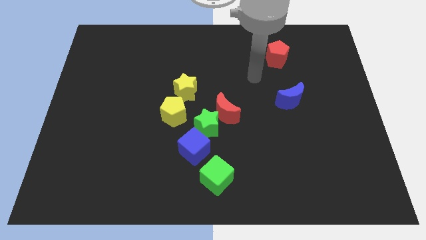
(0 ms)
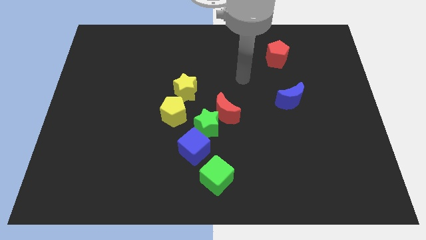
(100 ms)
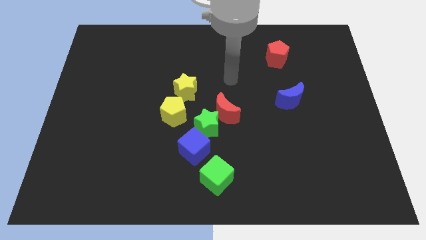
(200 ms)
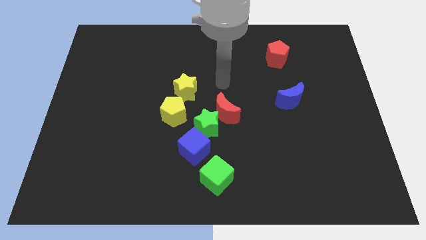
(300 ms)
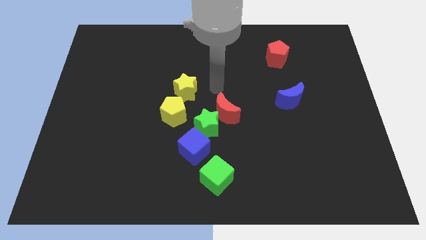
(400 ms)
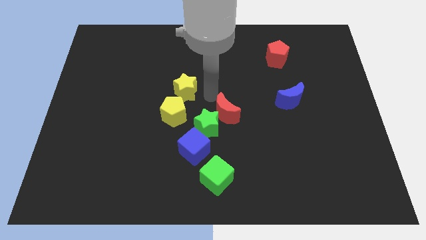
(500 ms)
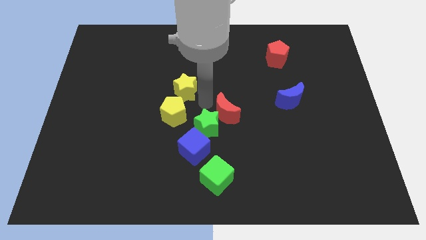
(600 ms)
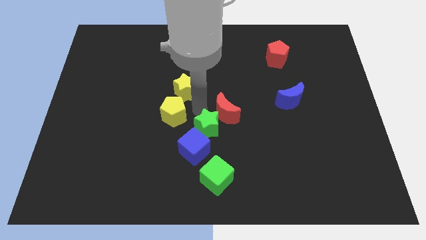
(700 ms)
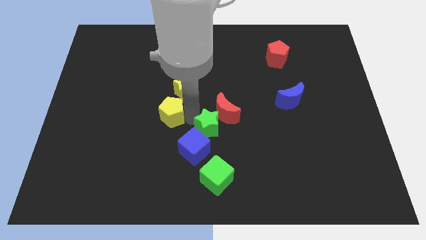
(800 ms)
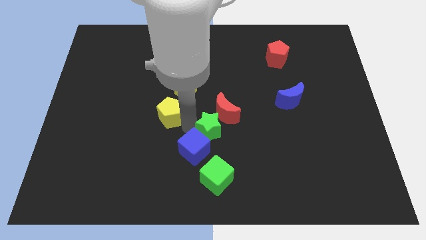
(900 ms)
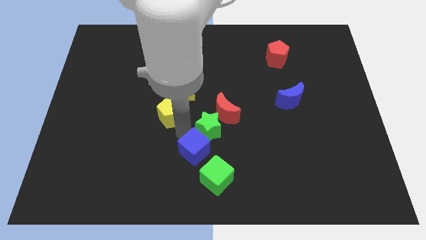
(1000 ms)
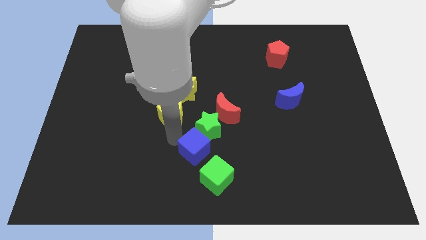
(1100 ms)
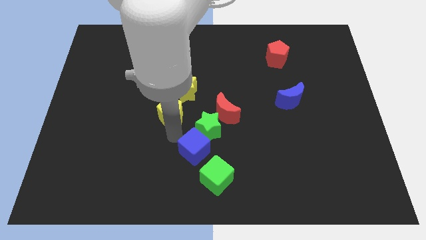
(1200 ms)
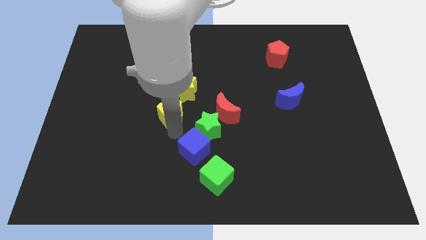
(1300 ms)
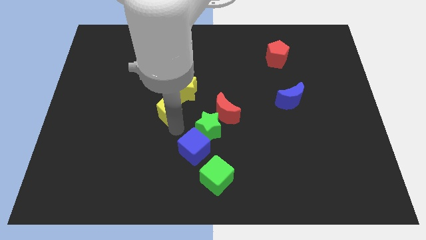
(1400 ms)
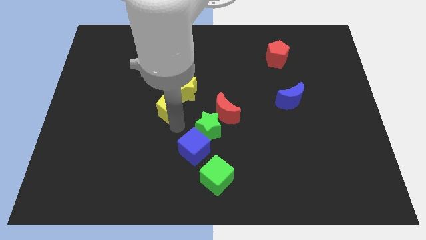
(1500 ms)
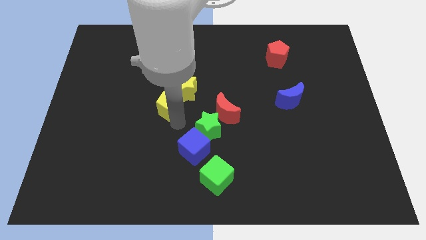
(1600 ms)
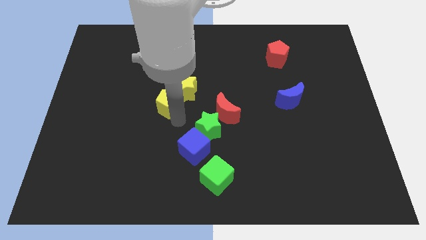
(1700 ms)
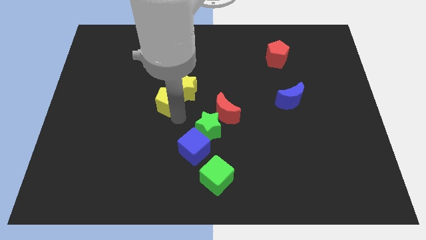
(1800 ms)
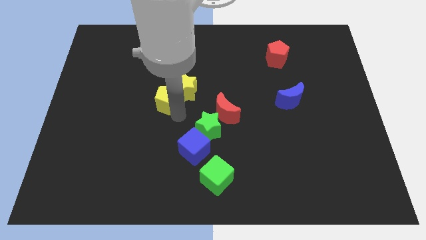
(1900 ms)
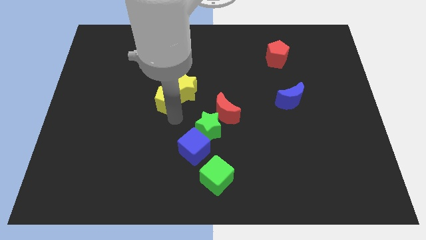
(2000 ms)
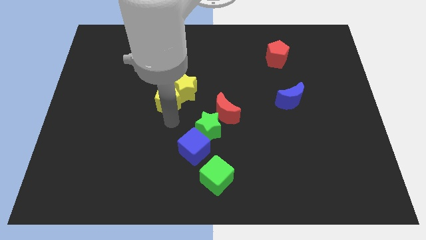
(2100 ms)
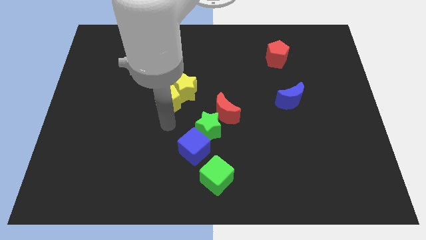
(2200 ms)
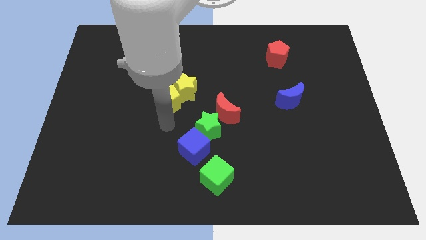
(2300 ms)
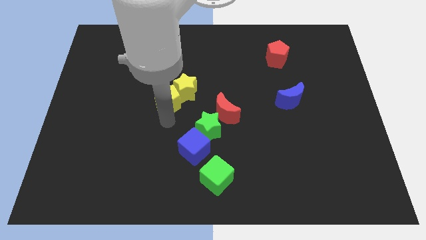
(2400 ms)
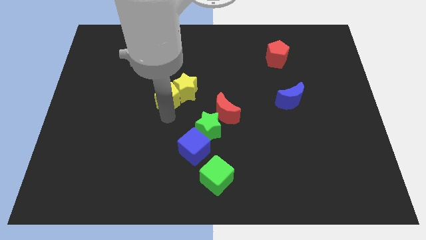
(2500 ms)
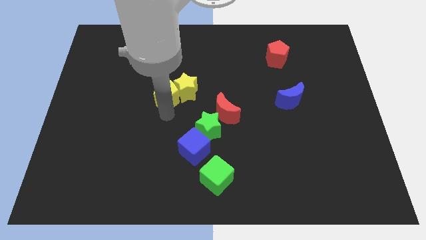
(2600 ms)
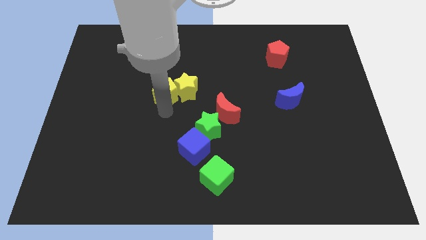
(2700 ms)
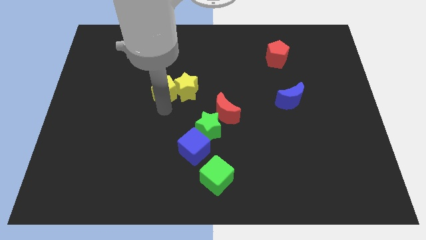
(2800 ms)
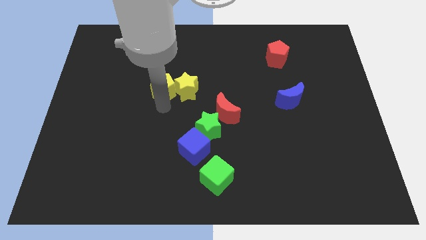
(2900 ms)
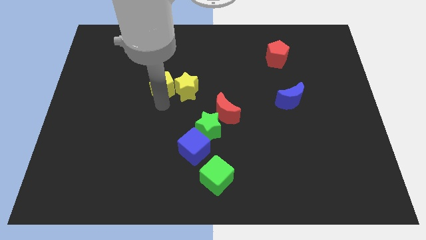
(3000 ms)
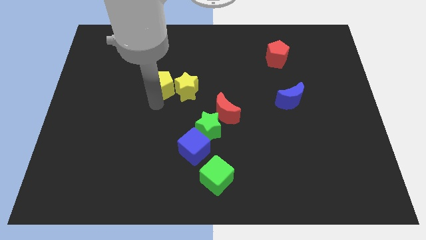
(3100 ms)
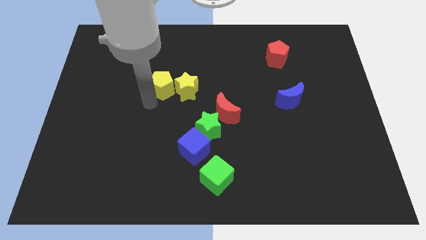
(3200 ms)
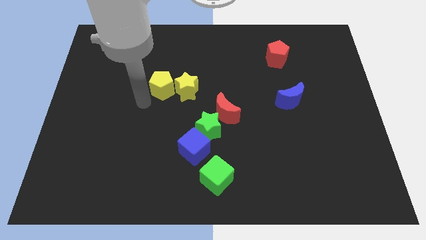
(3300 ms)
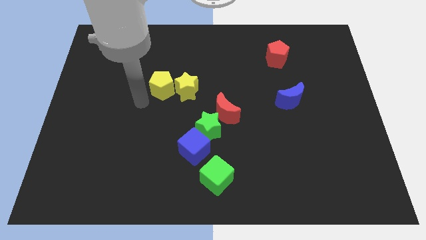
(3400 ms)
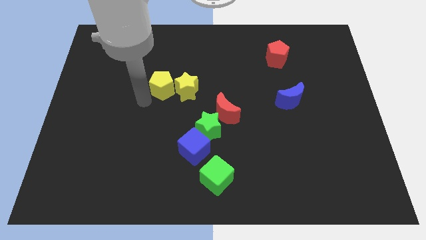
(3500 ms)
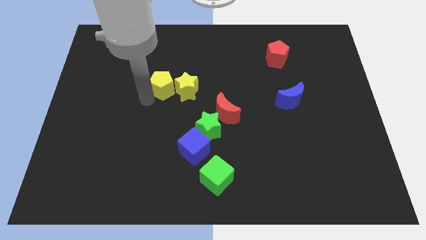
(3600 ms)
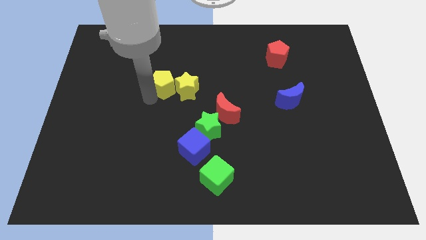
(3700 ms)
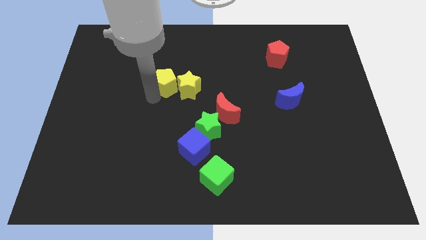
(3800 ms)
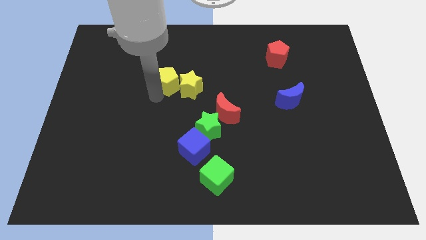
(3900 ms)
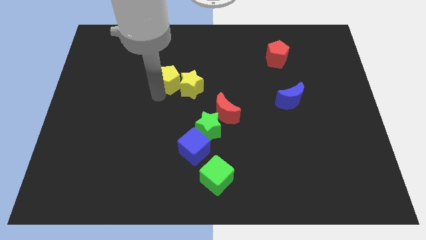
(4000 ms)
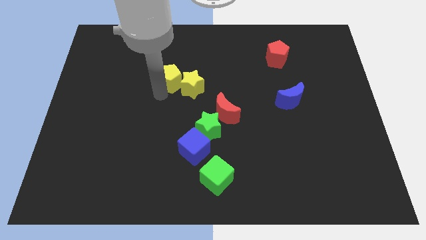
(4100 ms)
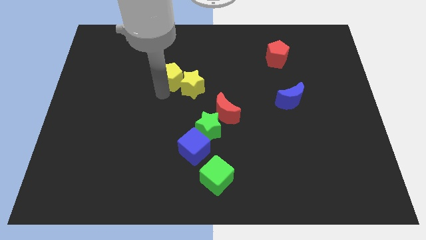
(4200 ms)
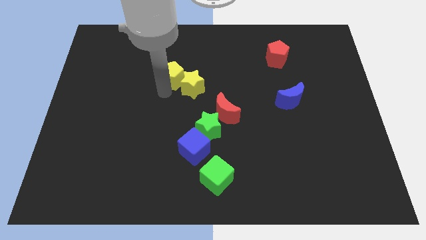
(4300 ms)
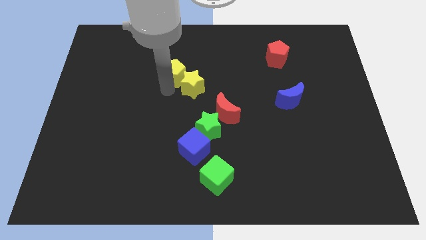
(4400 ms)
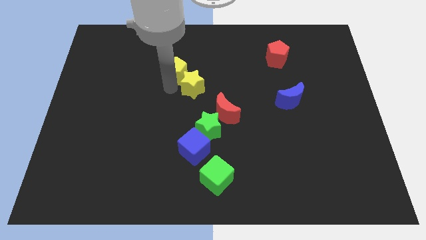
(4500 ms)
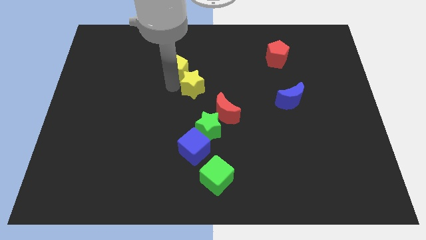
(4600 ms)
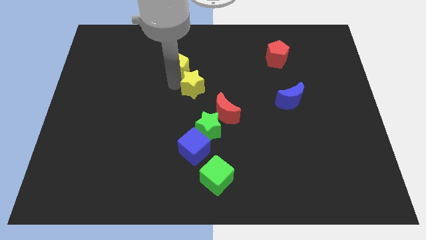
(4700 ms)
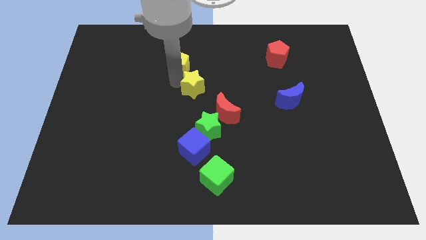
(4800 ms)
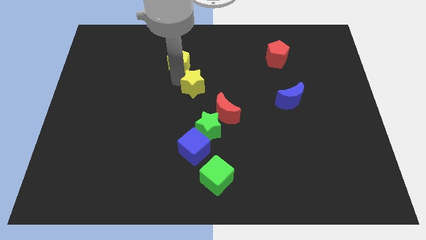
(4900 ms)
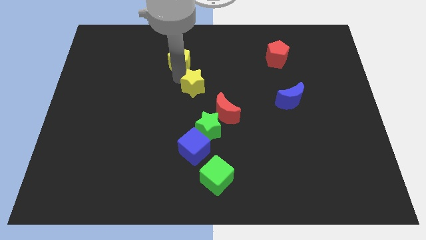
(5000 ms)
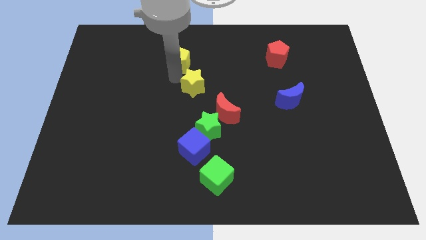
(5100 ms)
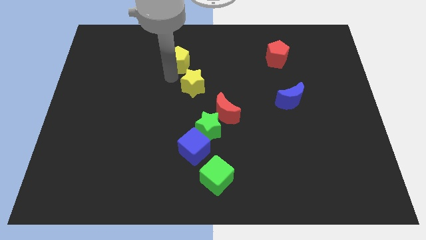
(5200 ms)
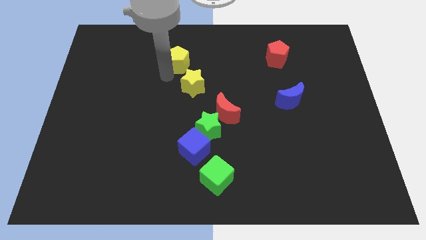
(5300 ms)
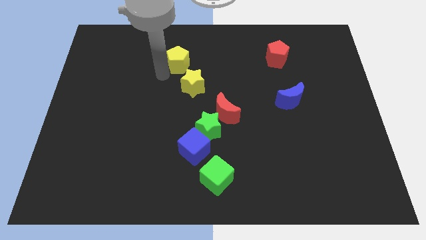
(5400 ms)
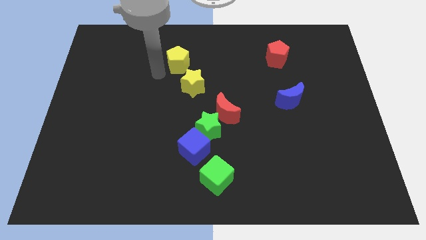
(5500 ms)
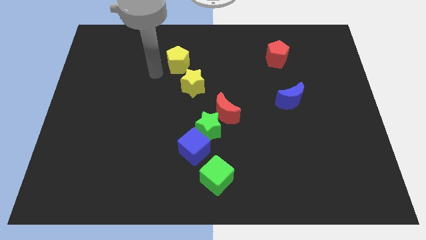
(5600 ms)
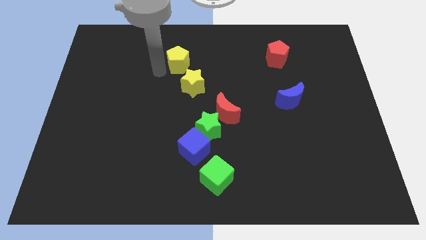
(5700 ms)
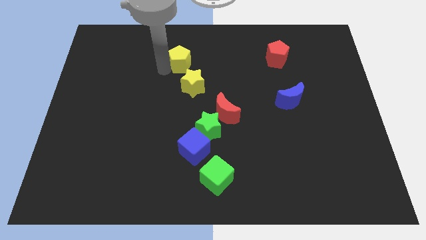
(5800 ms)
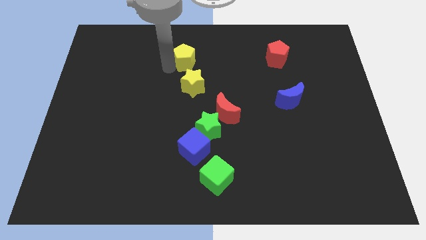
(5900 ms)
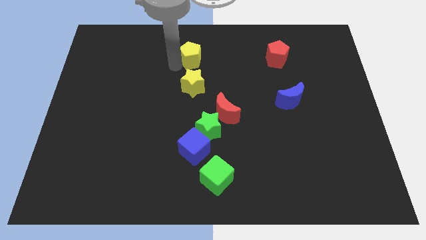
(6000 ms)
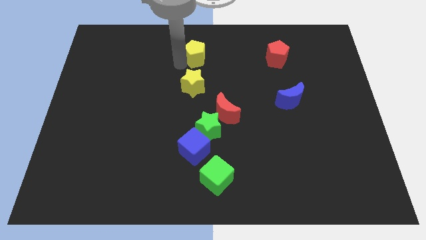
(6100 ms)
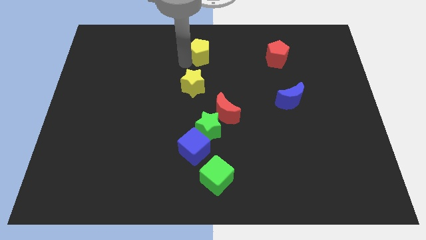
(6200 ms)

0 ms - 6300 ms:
push the yellow pentagon to the top side
